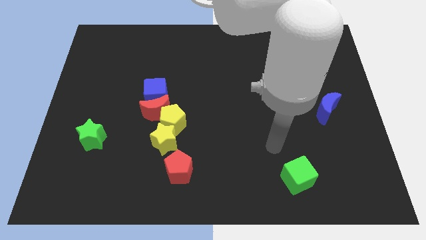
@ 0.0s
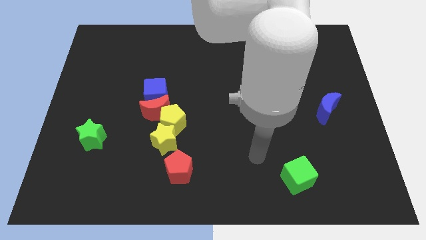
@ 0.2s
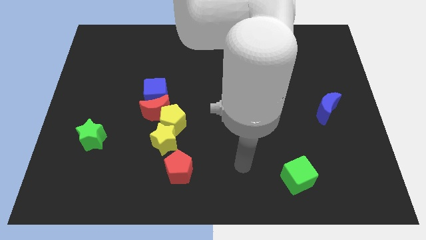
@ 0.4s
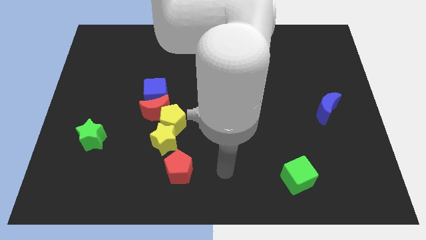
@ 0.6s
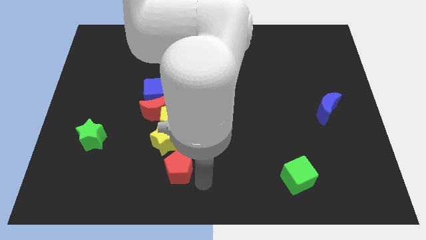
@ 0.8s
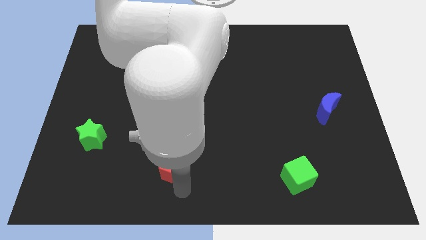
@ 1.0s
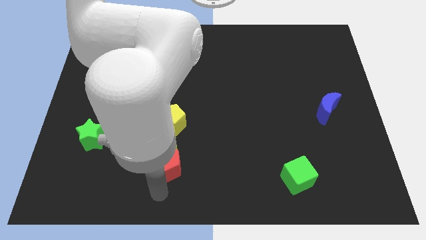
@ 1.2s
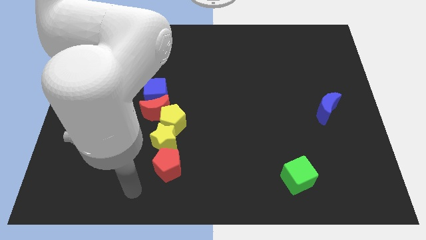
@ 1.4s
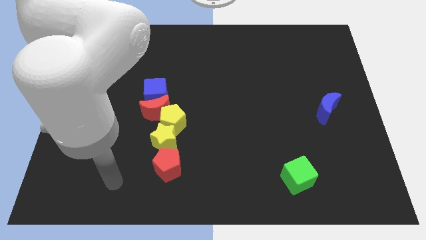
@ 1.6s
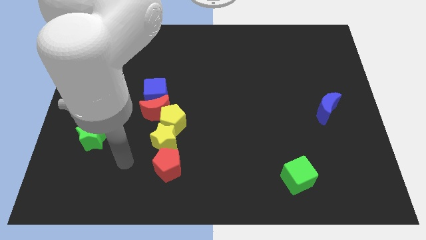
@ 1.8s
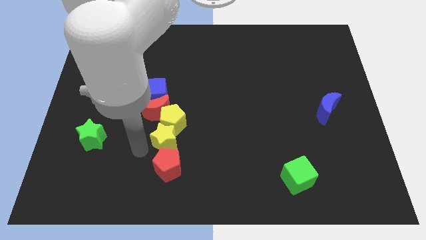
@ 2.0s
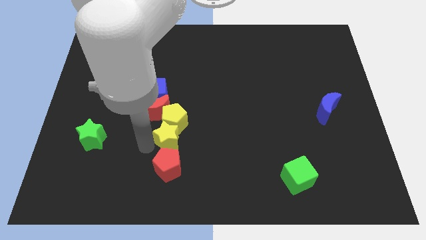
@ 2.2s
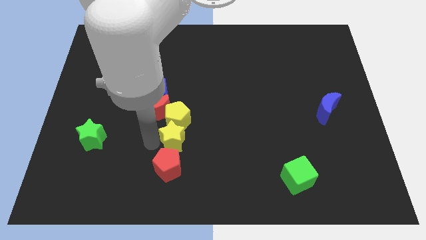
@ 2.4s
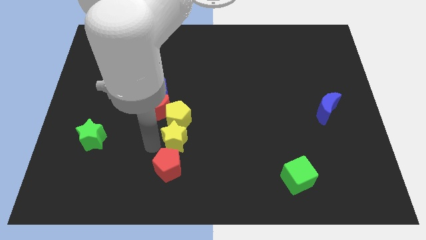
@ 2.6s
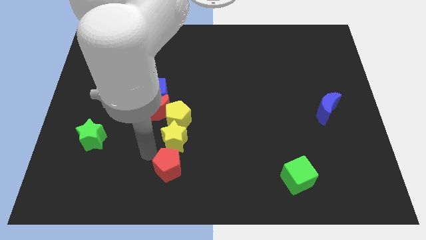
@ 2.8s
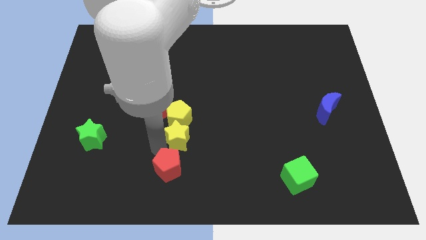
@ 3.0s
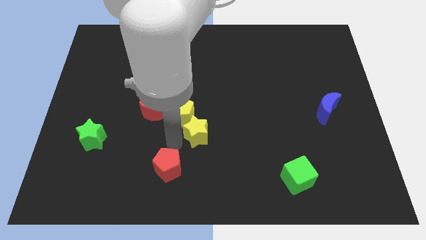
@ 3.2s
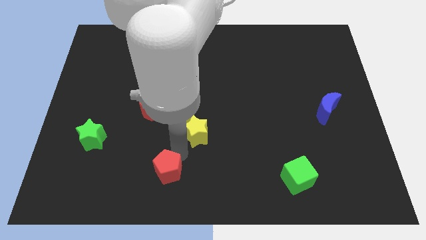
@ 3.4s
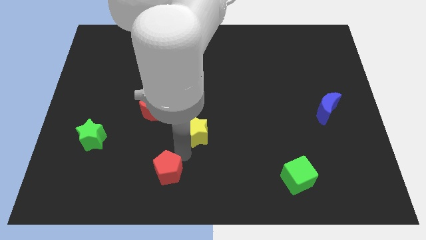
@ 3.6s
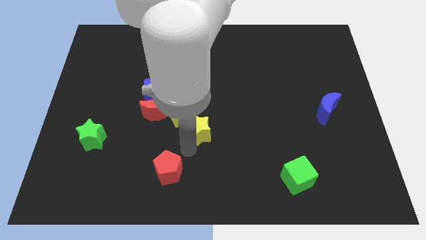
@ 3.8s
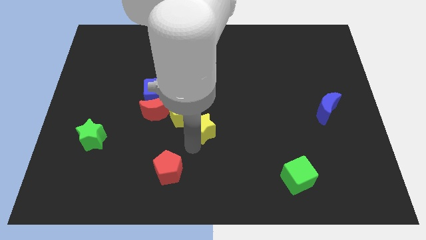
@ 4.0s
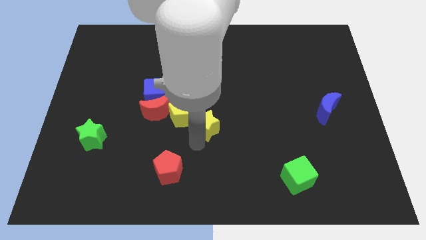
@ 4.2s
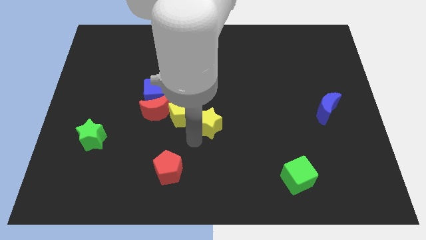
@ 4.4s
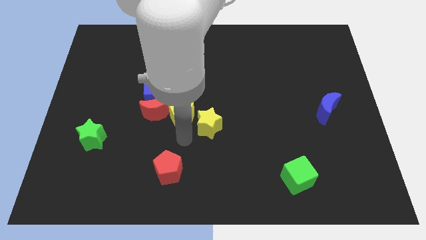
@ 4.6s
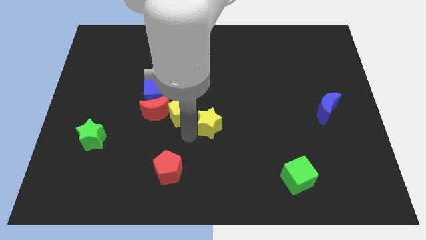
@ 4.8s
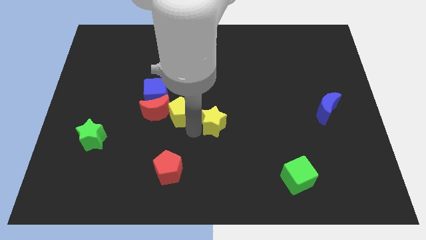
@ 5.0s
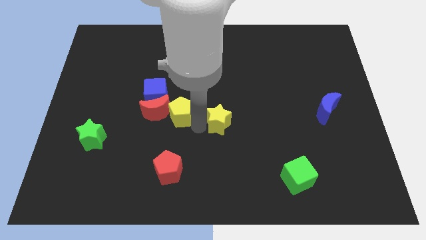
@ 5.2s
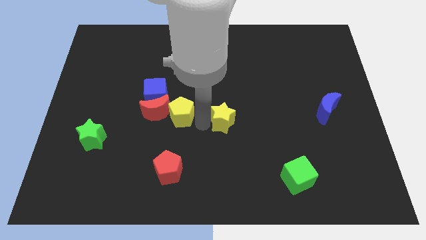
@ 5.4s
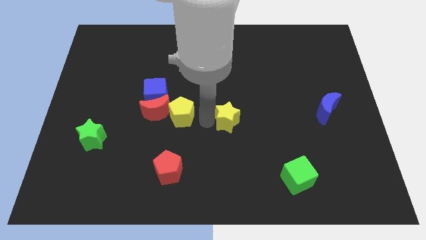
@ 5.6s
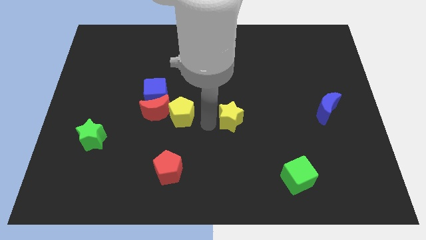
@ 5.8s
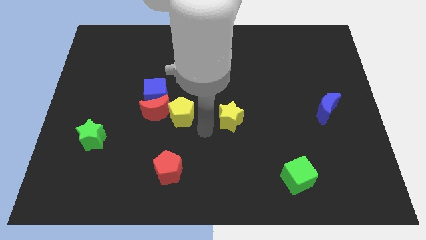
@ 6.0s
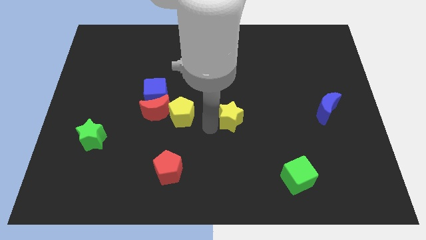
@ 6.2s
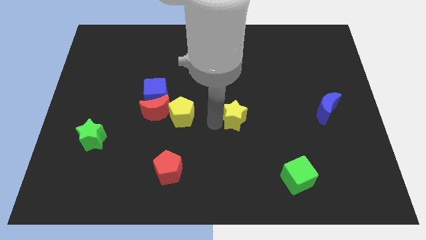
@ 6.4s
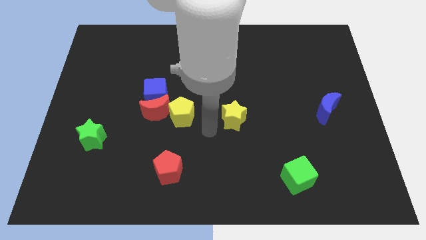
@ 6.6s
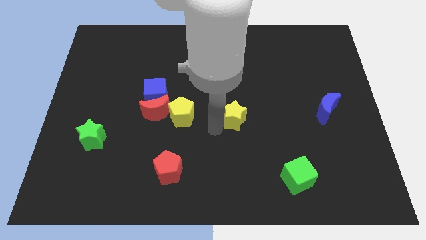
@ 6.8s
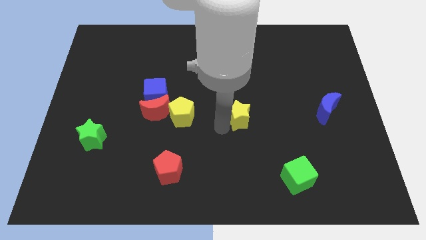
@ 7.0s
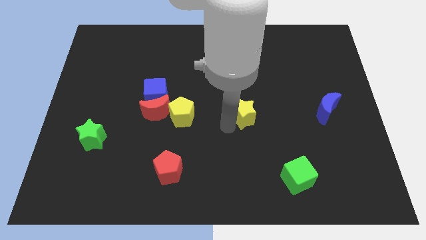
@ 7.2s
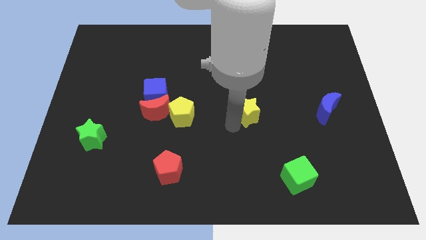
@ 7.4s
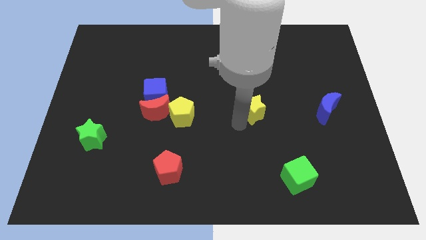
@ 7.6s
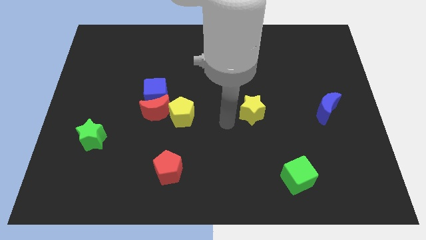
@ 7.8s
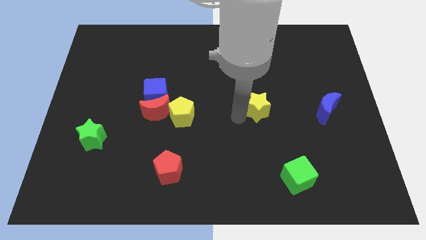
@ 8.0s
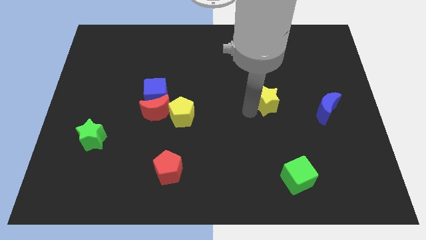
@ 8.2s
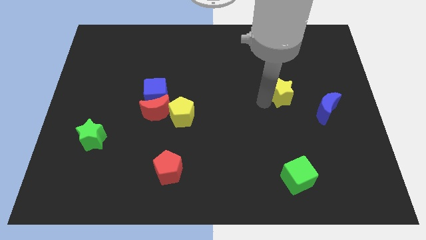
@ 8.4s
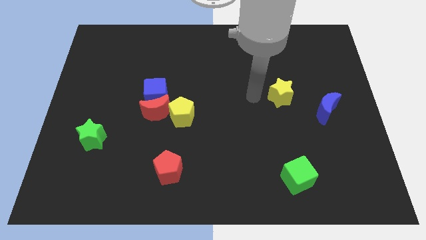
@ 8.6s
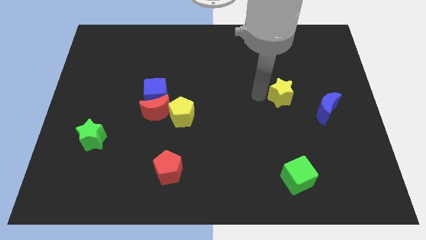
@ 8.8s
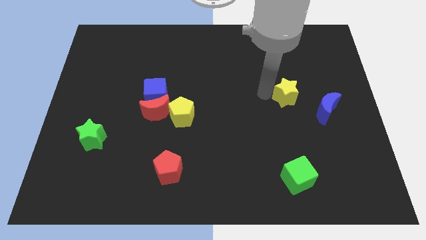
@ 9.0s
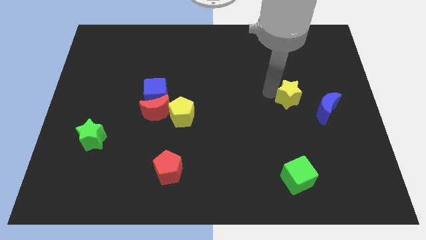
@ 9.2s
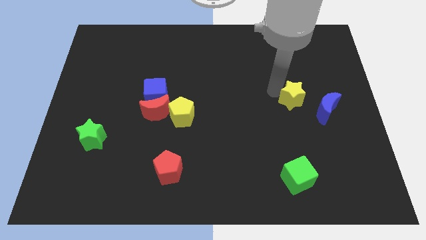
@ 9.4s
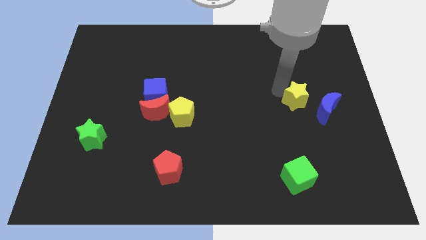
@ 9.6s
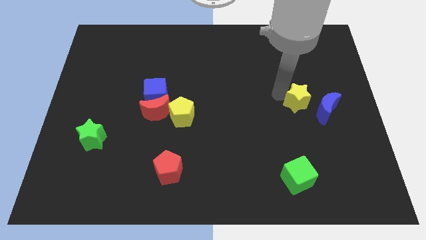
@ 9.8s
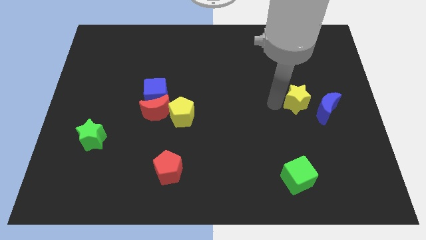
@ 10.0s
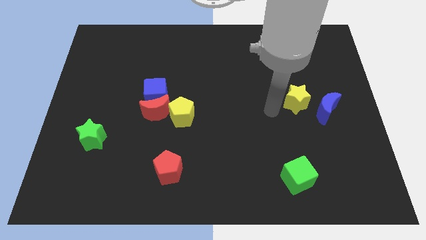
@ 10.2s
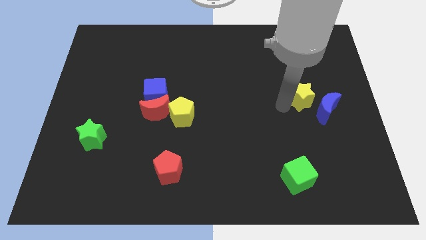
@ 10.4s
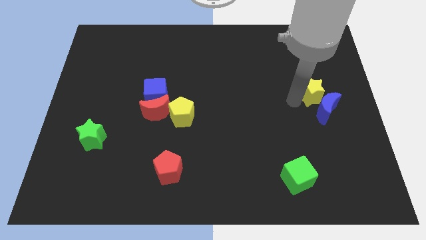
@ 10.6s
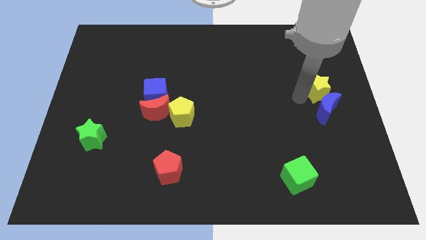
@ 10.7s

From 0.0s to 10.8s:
move the yellow star to the right side

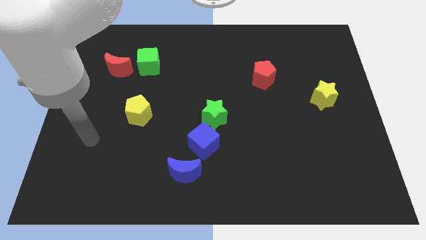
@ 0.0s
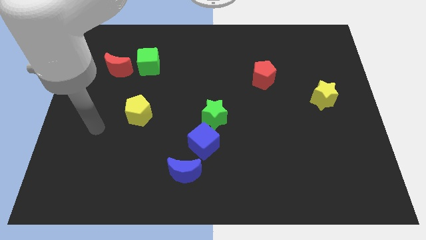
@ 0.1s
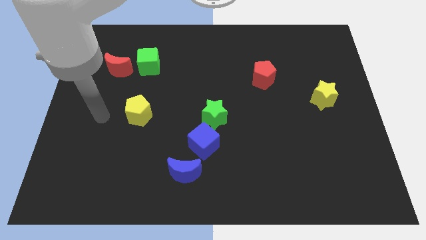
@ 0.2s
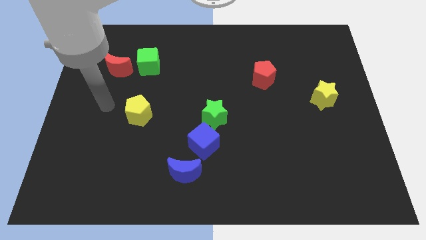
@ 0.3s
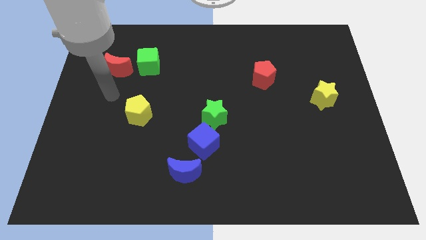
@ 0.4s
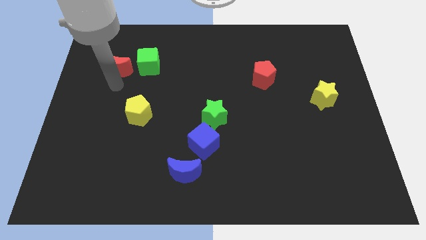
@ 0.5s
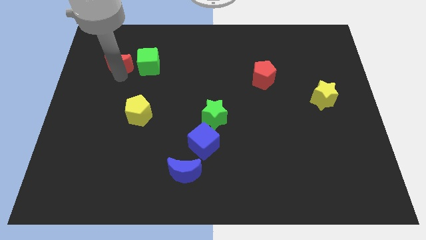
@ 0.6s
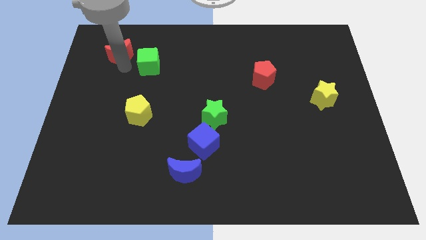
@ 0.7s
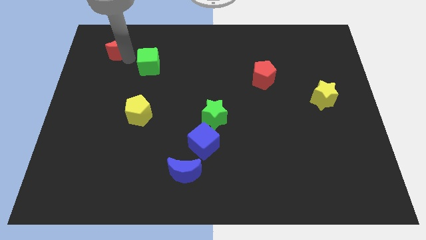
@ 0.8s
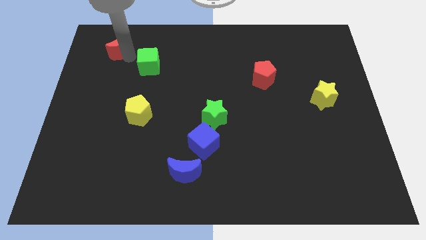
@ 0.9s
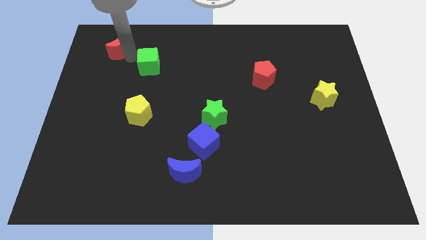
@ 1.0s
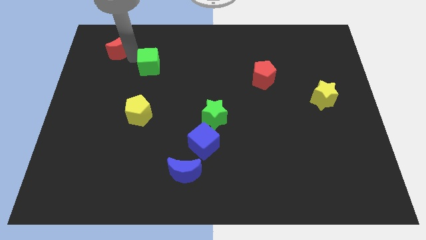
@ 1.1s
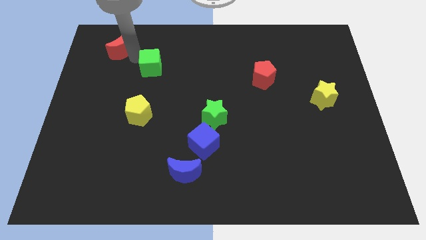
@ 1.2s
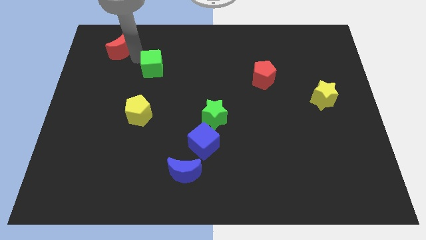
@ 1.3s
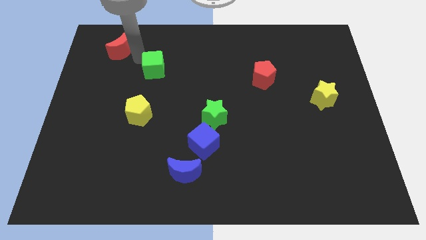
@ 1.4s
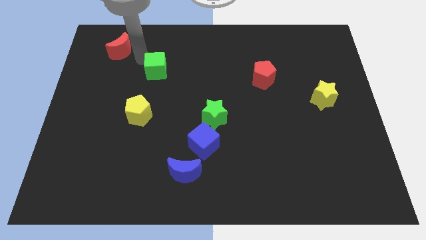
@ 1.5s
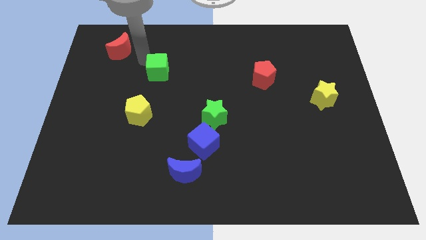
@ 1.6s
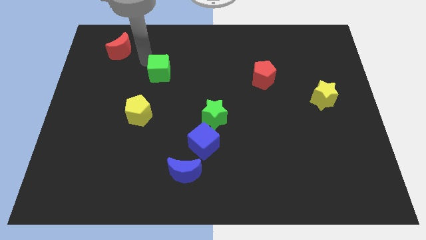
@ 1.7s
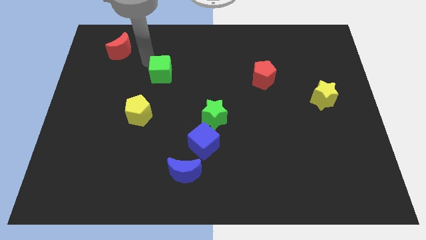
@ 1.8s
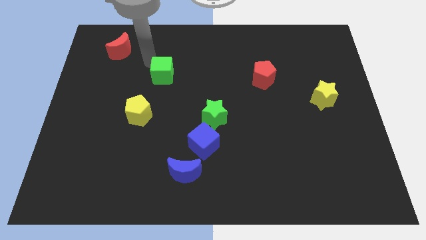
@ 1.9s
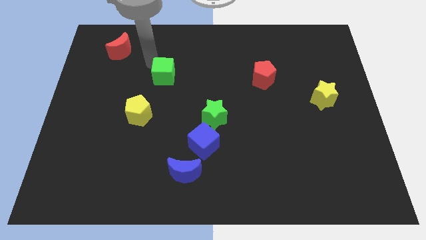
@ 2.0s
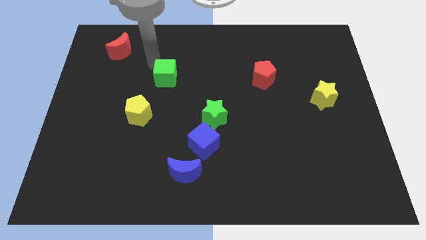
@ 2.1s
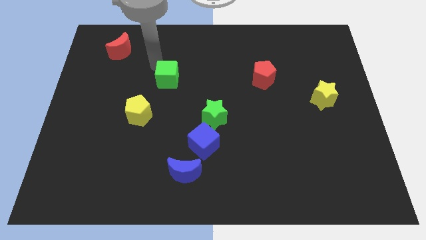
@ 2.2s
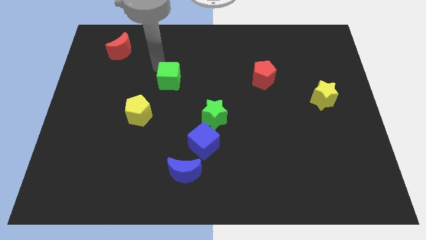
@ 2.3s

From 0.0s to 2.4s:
push the green cube to the middle of the board
